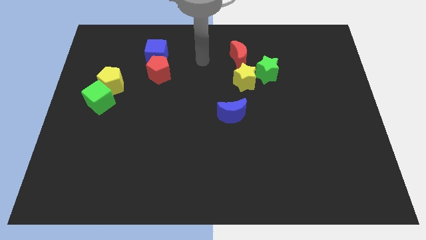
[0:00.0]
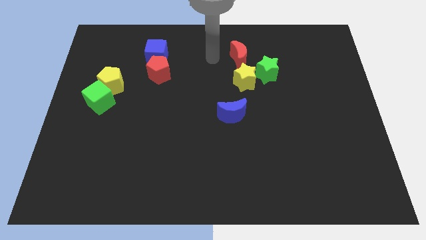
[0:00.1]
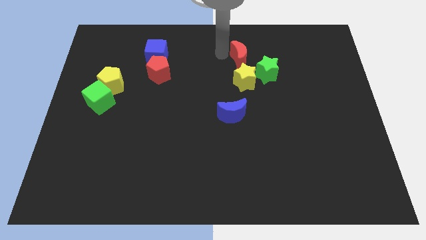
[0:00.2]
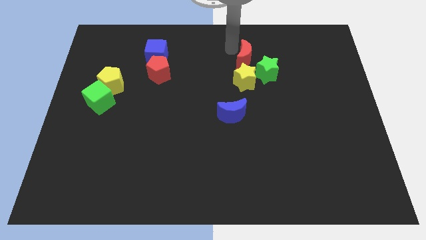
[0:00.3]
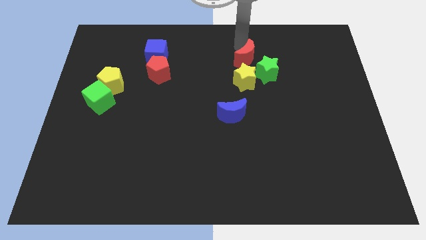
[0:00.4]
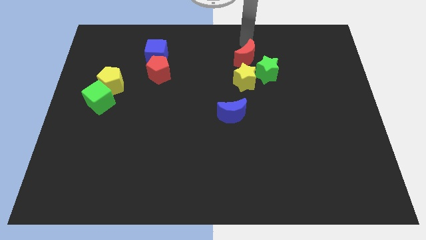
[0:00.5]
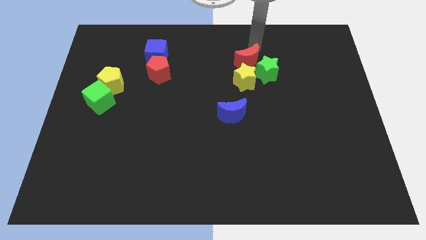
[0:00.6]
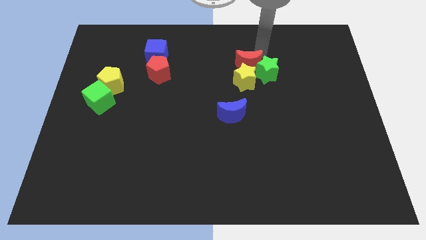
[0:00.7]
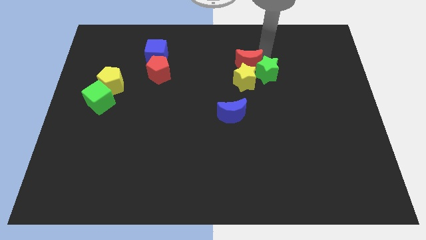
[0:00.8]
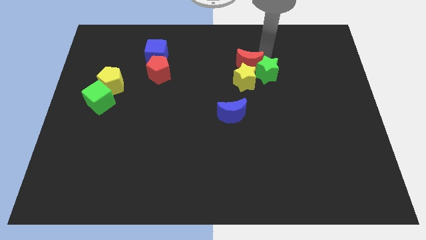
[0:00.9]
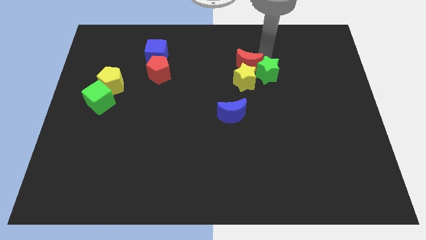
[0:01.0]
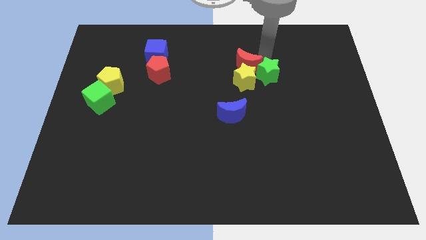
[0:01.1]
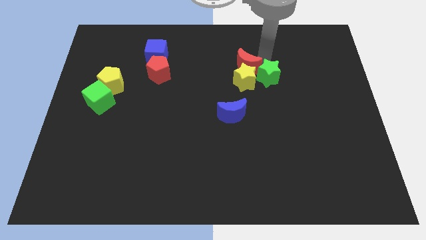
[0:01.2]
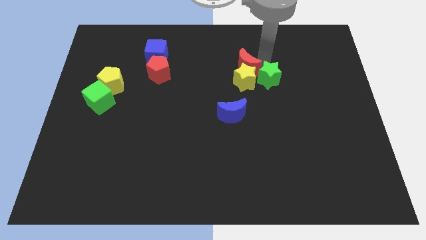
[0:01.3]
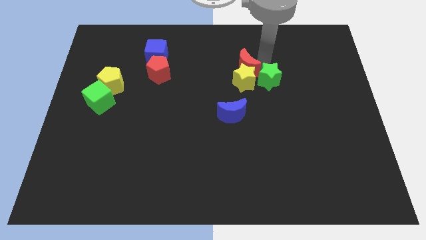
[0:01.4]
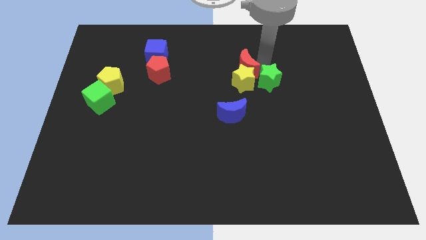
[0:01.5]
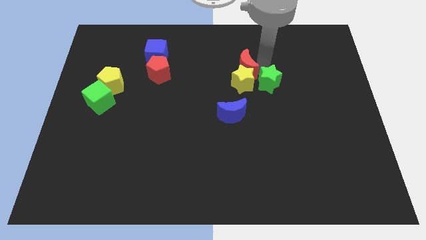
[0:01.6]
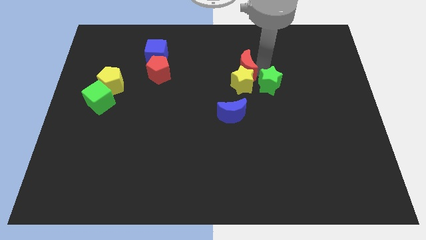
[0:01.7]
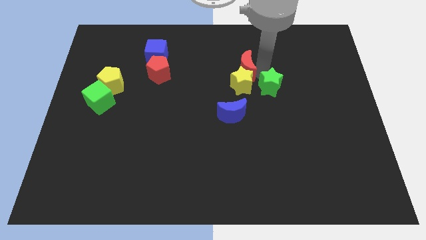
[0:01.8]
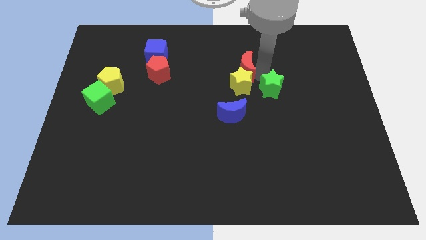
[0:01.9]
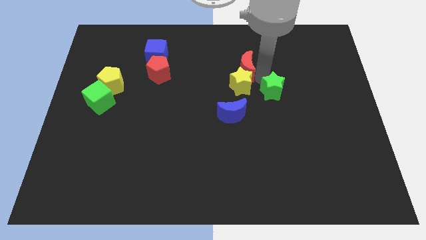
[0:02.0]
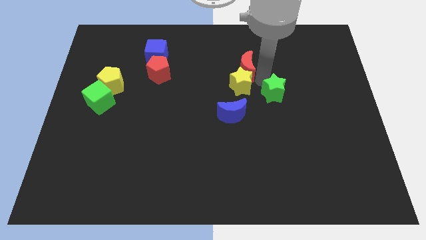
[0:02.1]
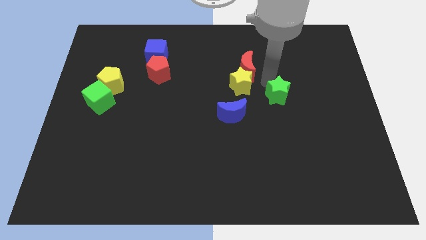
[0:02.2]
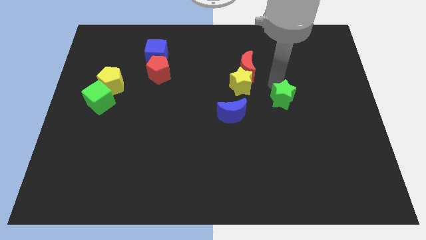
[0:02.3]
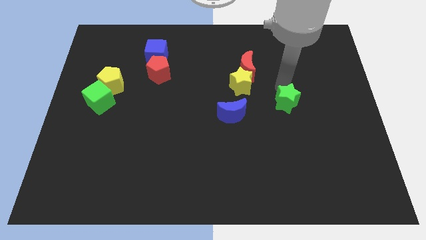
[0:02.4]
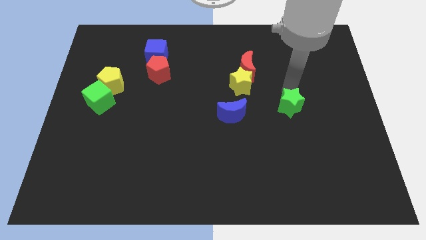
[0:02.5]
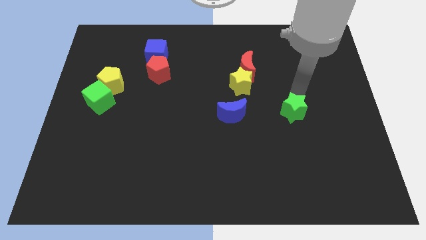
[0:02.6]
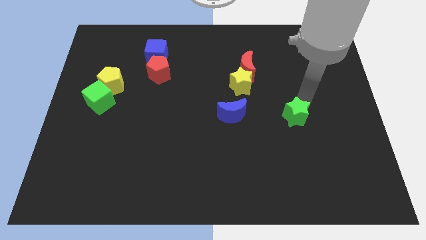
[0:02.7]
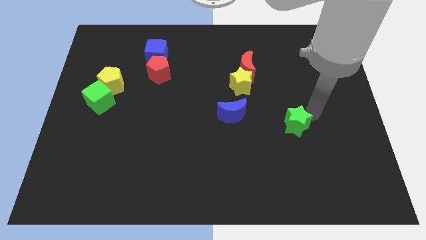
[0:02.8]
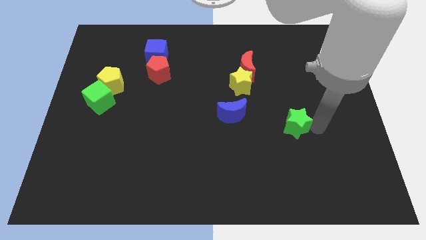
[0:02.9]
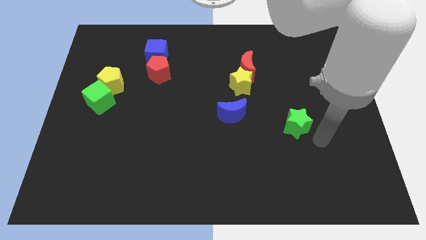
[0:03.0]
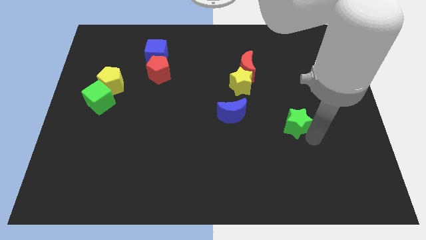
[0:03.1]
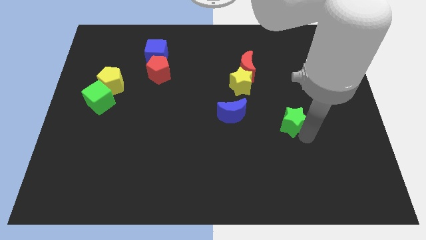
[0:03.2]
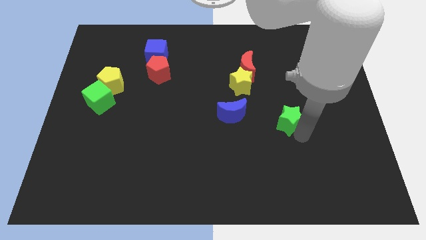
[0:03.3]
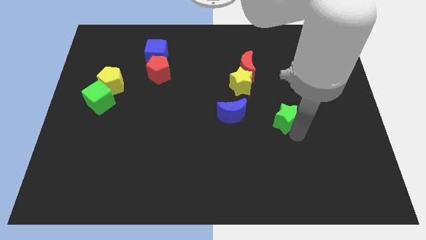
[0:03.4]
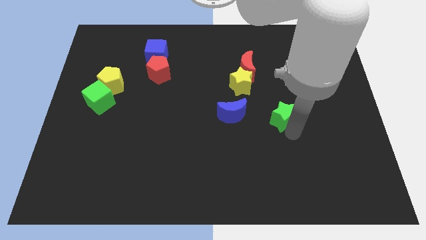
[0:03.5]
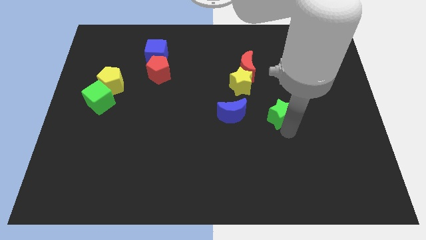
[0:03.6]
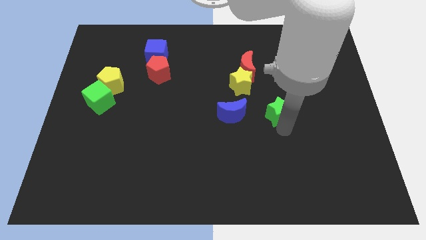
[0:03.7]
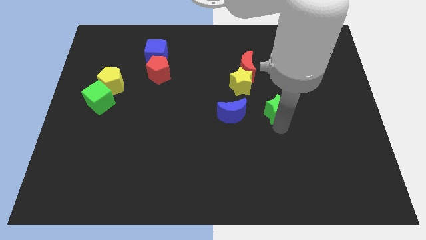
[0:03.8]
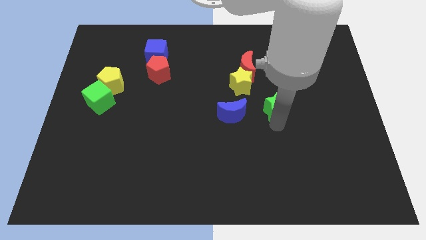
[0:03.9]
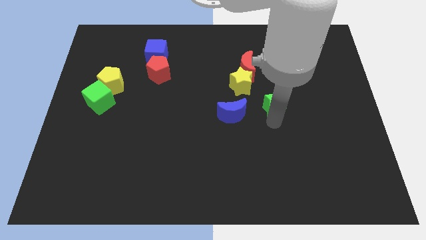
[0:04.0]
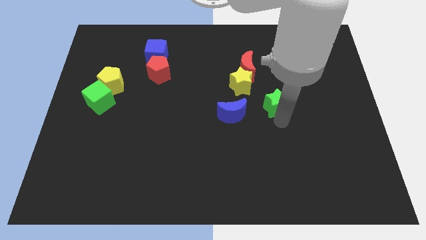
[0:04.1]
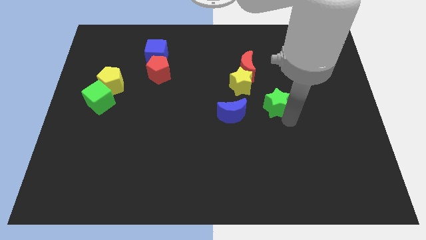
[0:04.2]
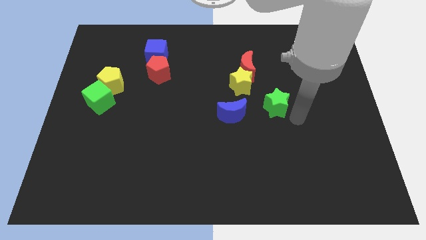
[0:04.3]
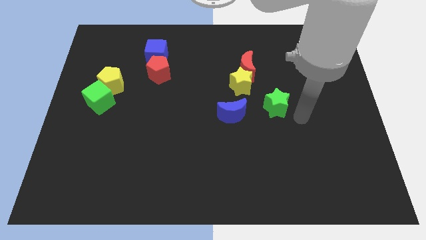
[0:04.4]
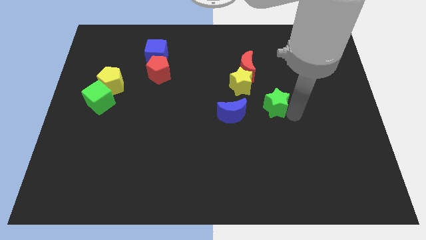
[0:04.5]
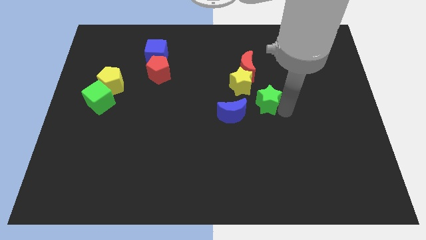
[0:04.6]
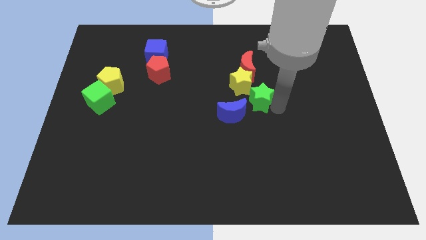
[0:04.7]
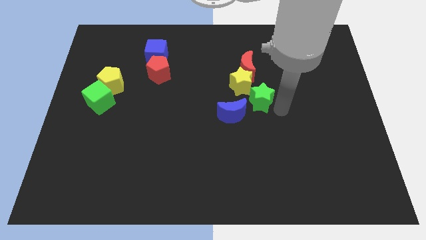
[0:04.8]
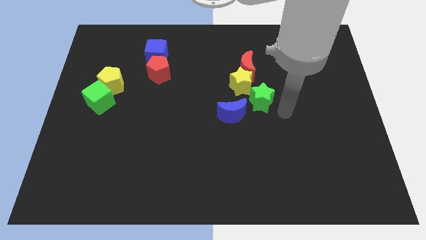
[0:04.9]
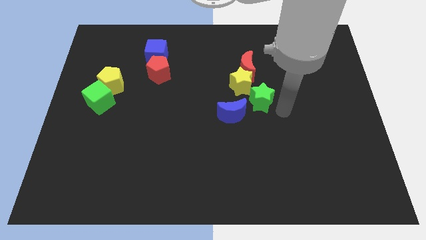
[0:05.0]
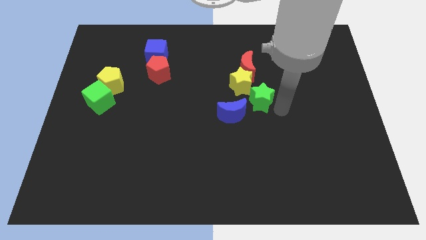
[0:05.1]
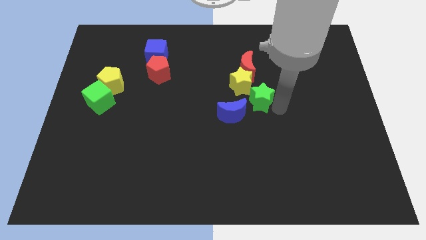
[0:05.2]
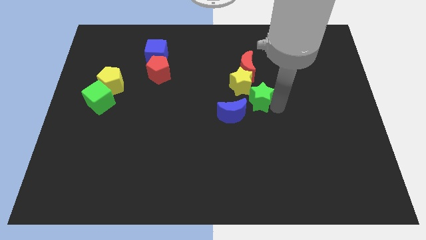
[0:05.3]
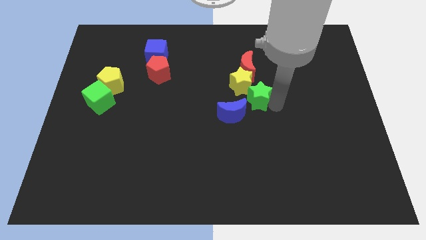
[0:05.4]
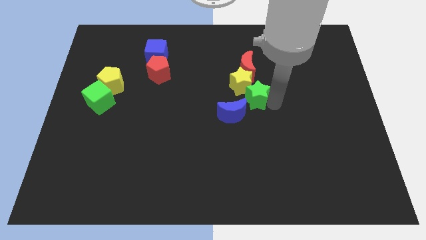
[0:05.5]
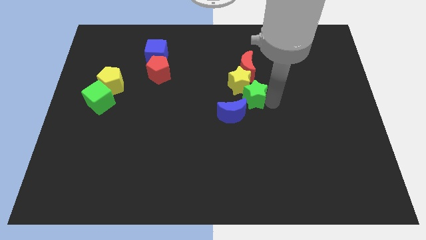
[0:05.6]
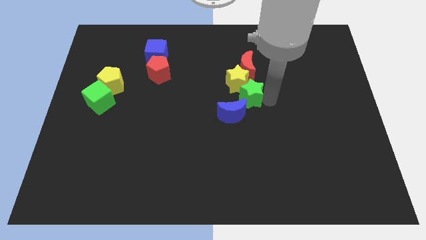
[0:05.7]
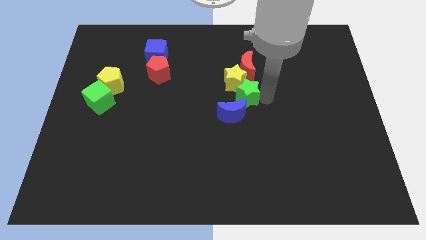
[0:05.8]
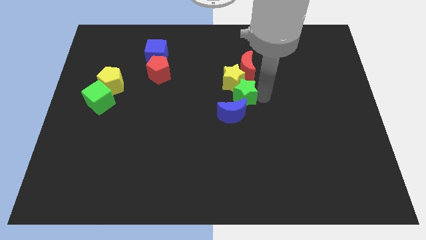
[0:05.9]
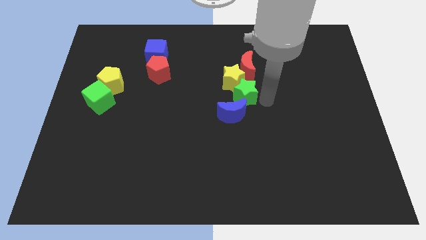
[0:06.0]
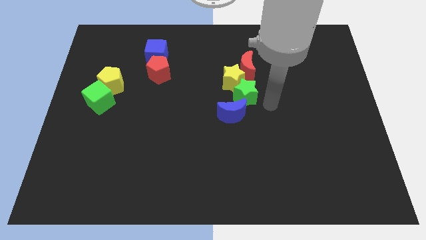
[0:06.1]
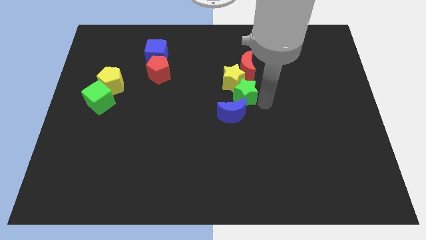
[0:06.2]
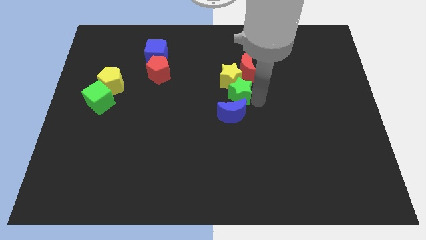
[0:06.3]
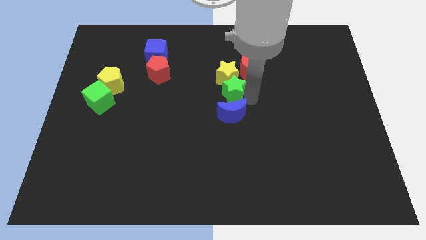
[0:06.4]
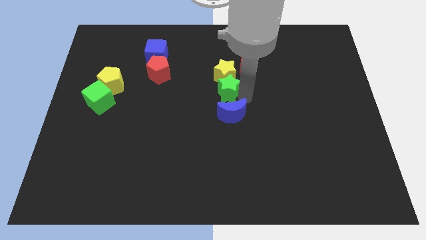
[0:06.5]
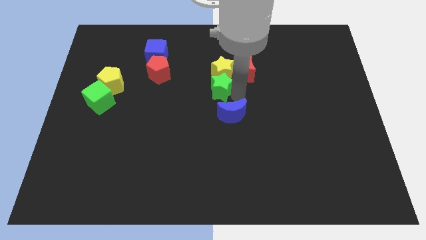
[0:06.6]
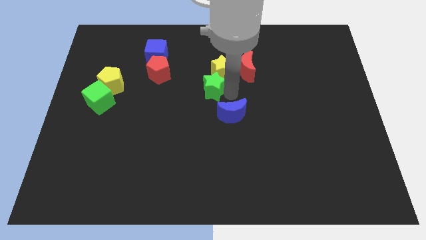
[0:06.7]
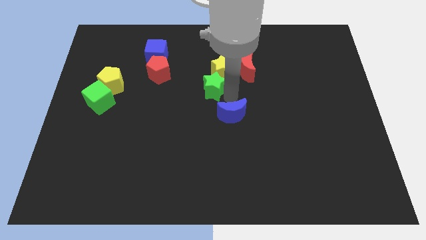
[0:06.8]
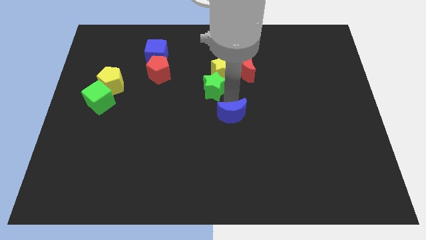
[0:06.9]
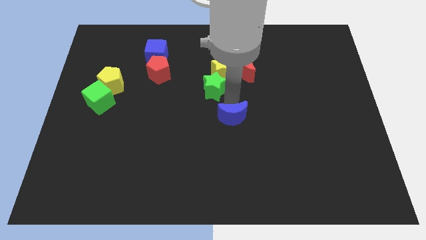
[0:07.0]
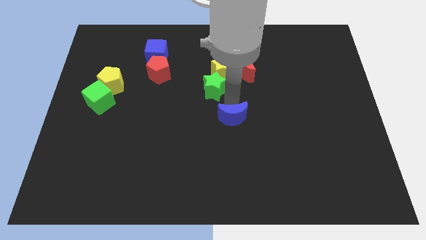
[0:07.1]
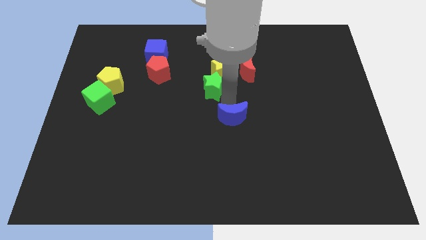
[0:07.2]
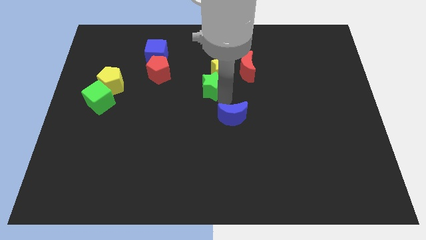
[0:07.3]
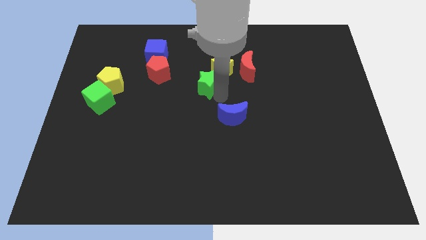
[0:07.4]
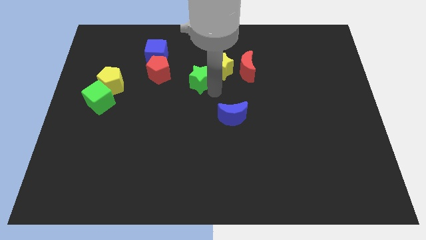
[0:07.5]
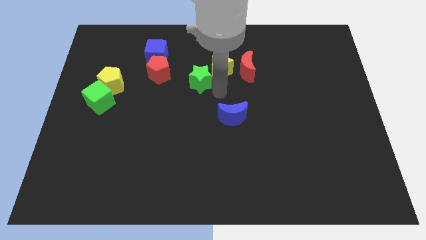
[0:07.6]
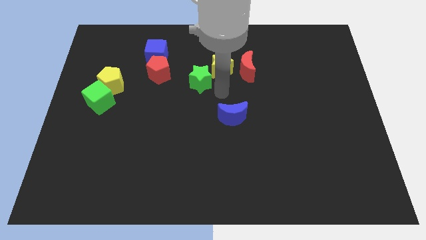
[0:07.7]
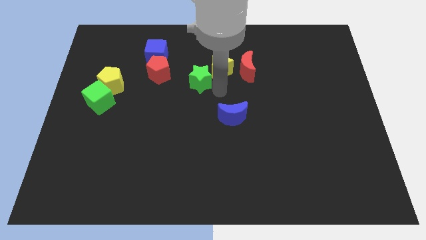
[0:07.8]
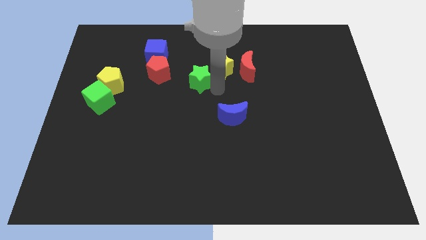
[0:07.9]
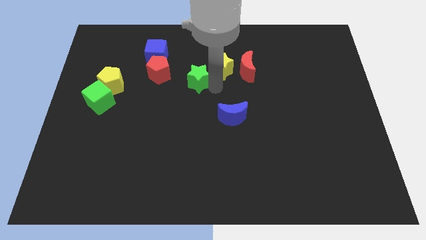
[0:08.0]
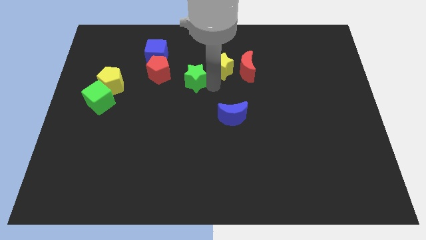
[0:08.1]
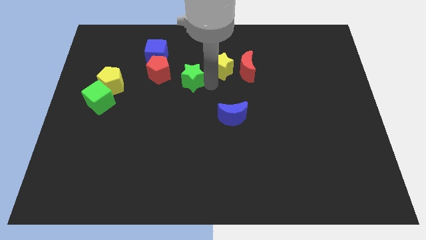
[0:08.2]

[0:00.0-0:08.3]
slide the green star diagonally down and to the right of the blue cube
